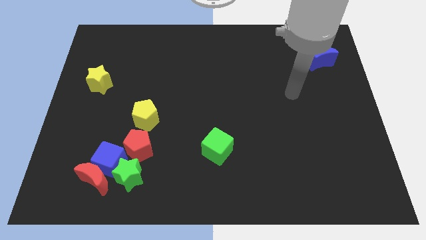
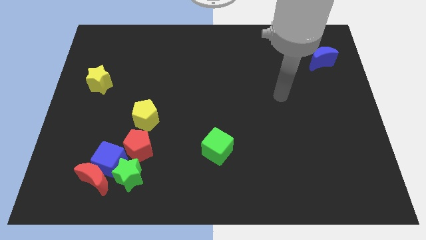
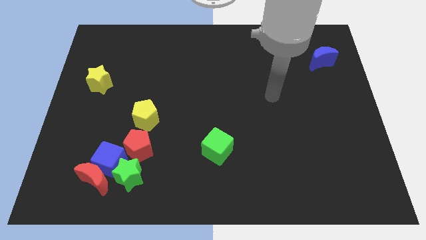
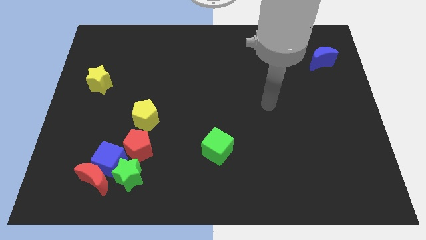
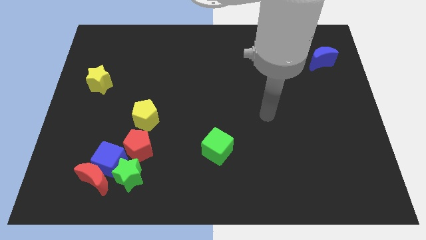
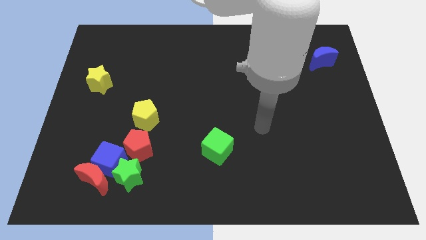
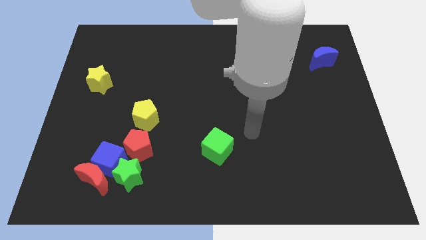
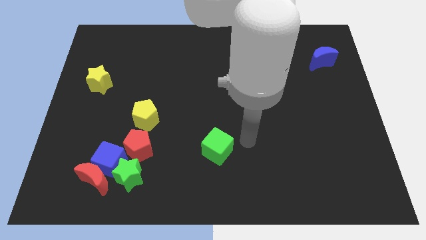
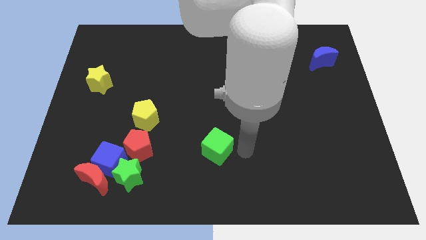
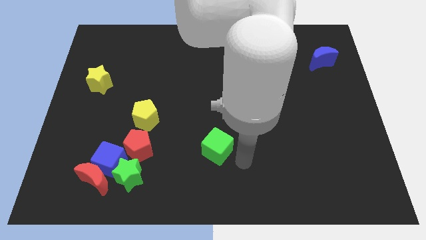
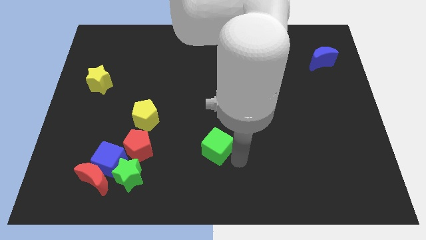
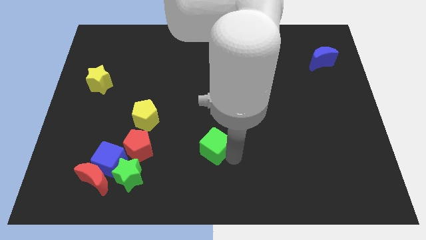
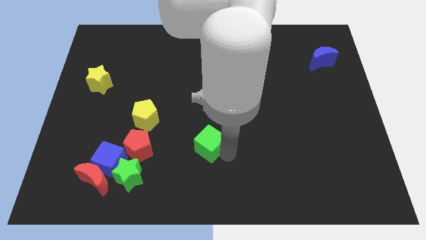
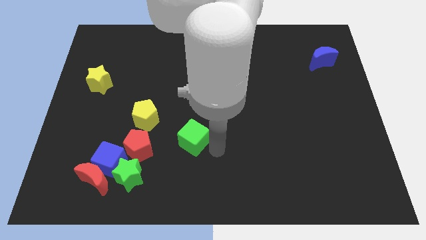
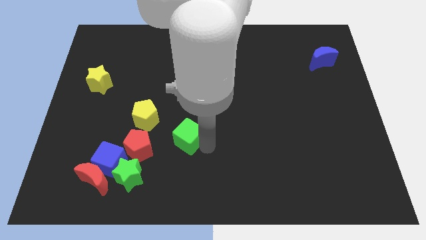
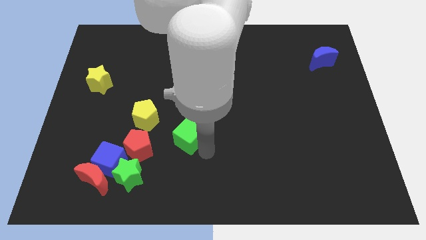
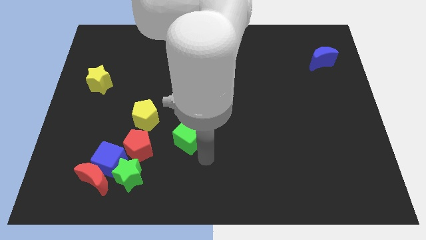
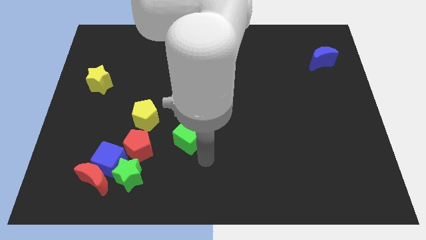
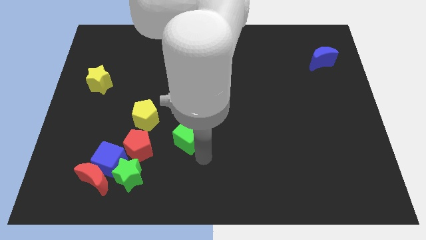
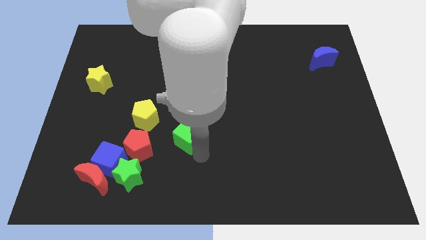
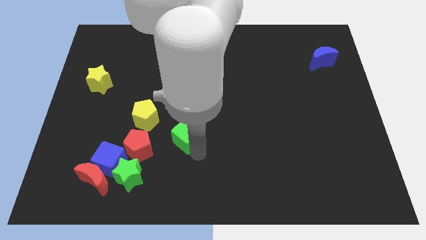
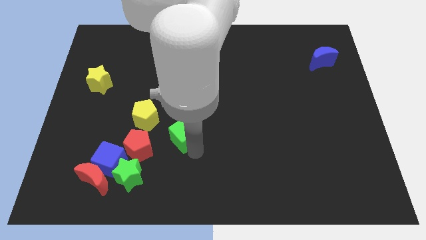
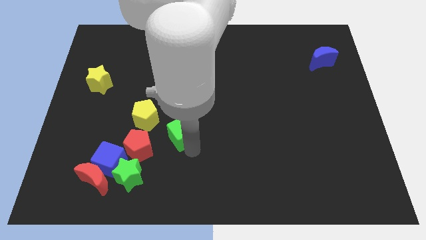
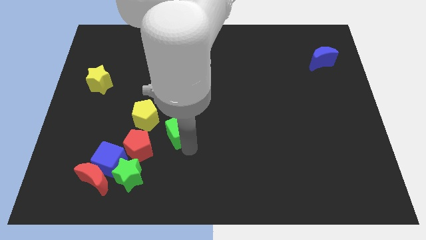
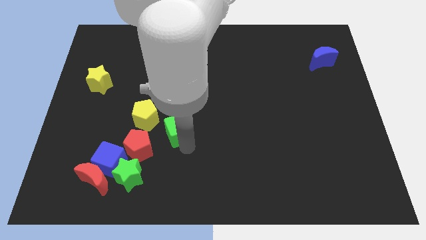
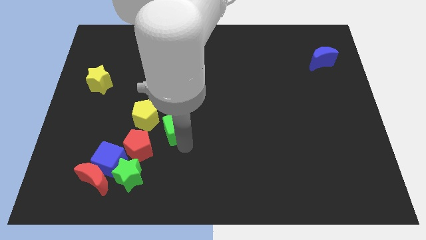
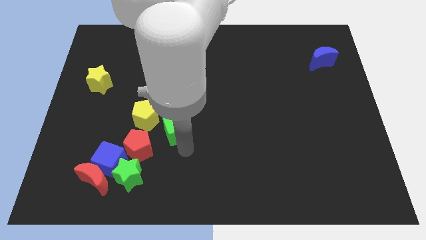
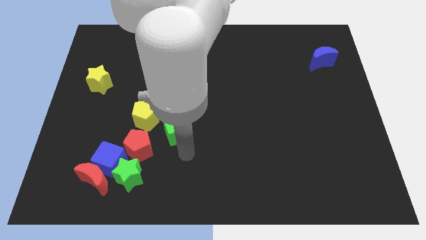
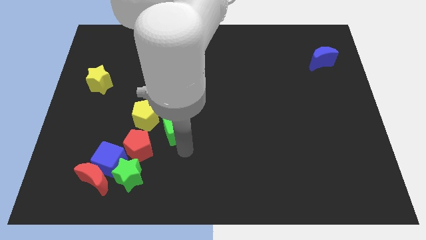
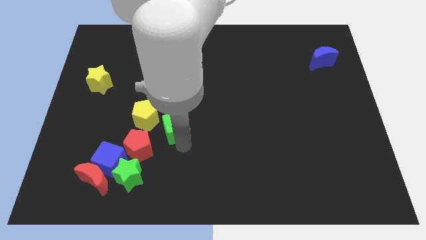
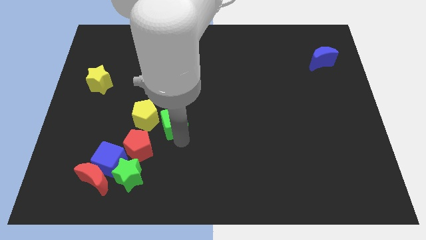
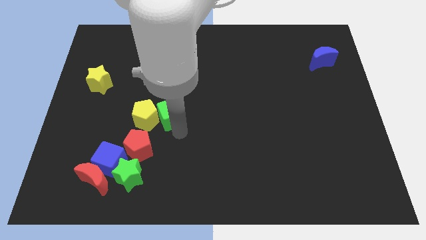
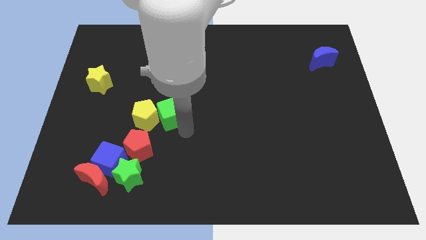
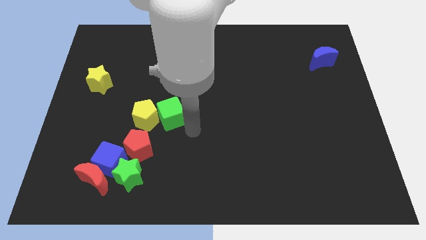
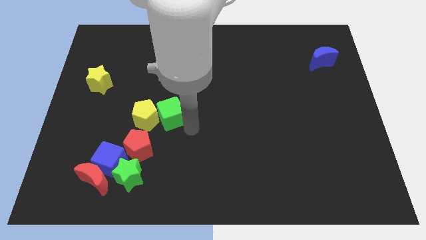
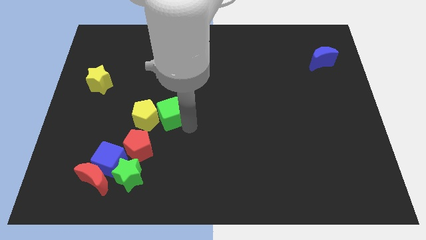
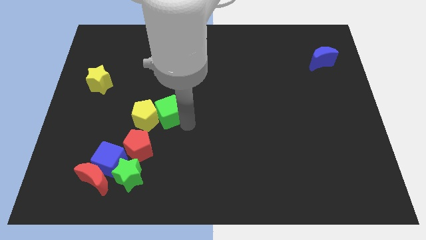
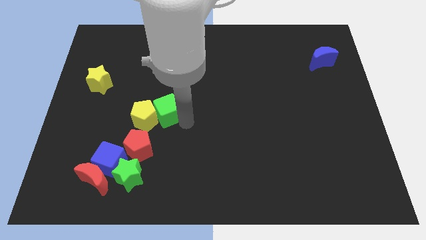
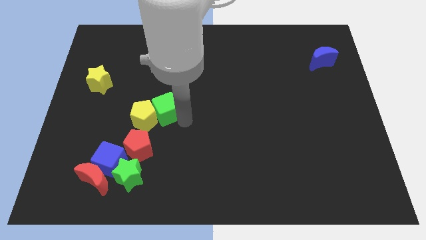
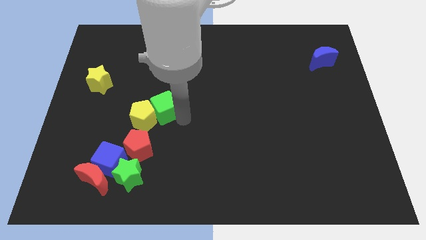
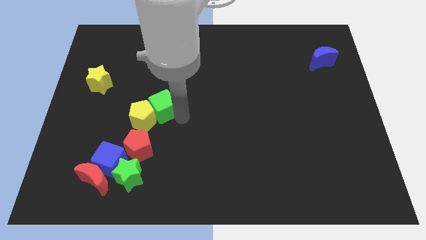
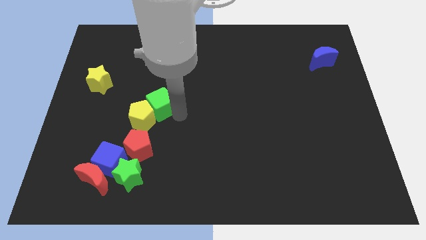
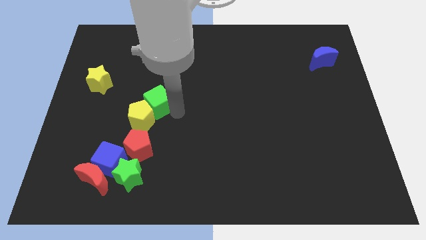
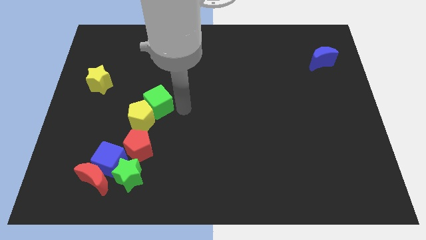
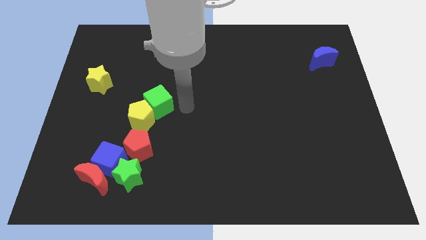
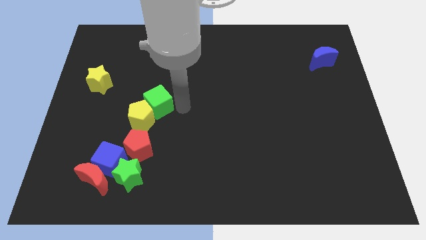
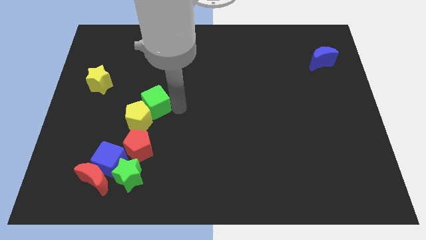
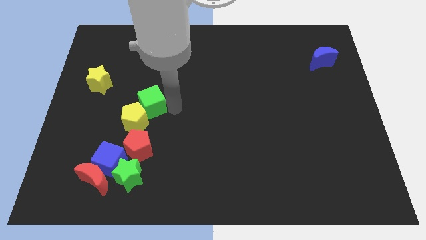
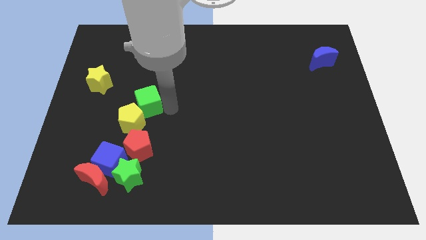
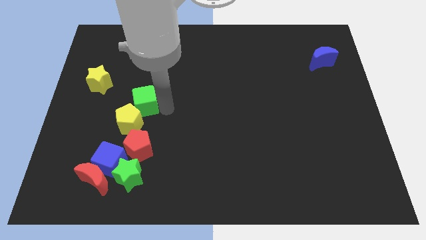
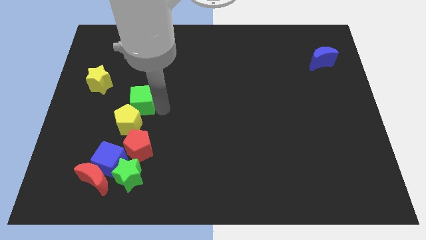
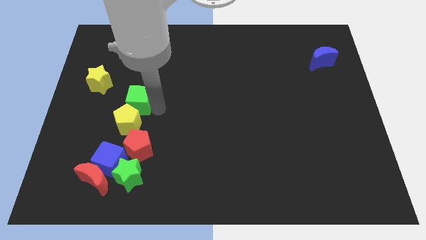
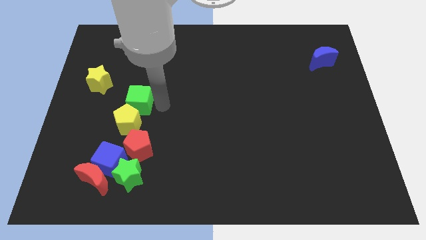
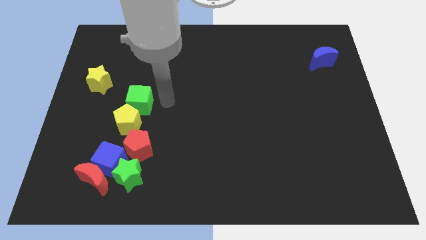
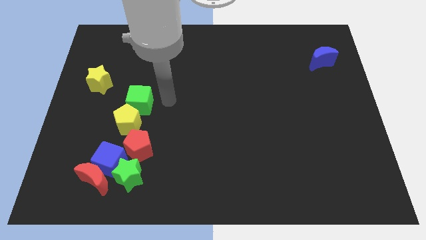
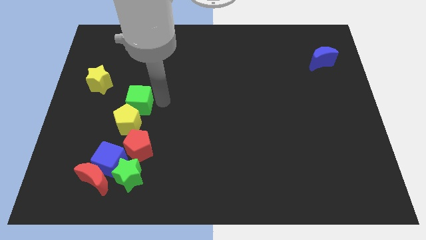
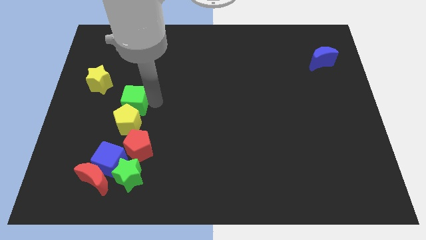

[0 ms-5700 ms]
move the green cube diagonally up and to the left of the yellow pentagon

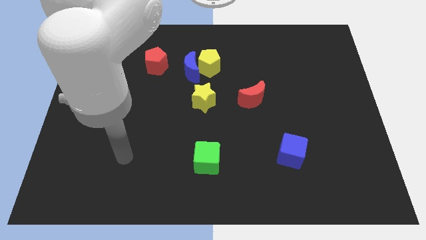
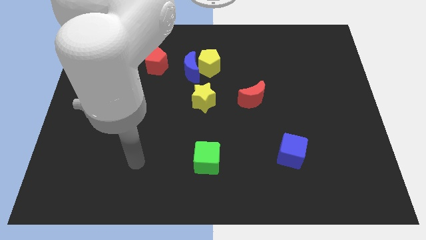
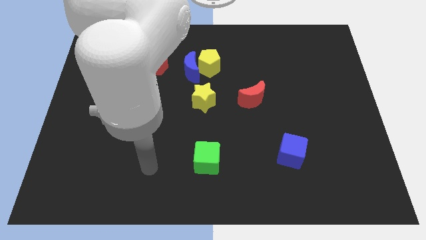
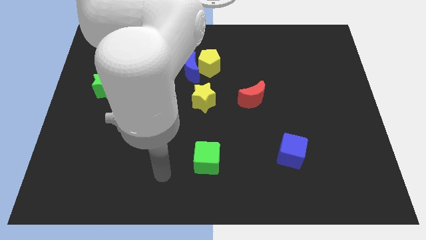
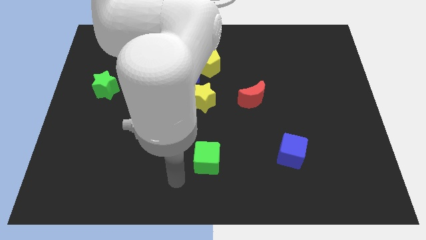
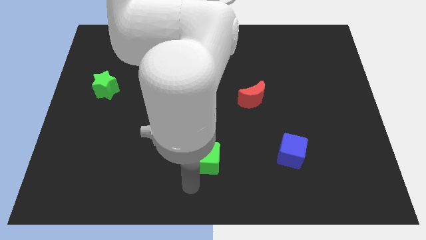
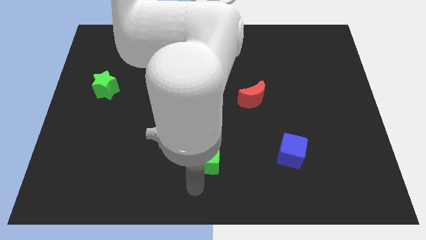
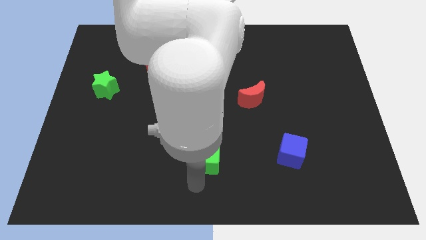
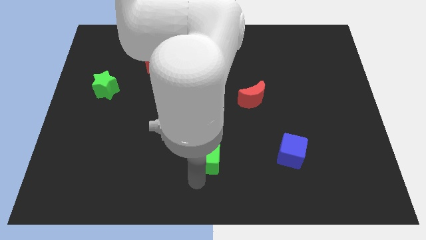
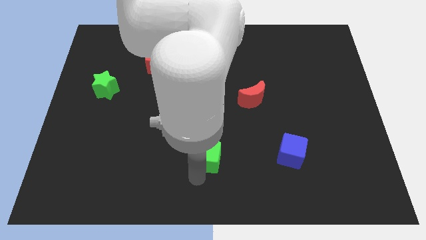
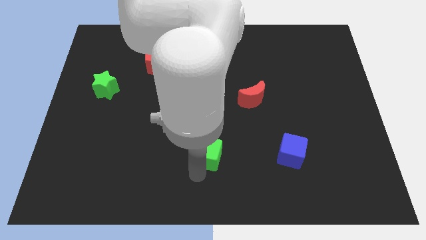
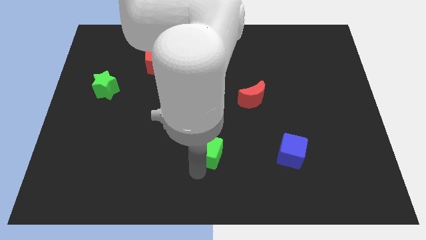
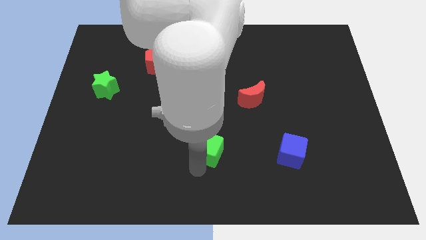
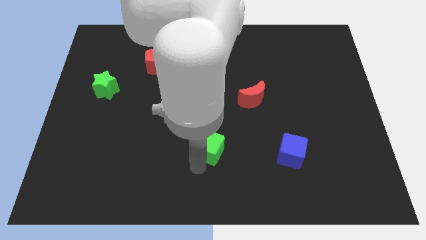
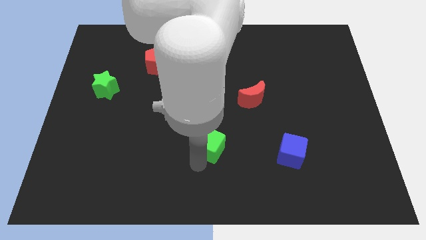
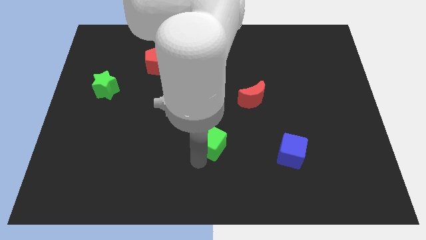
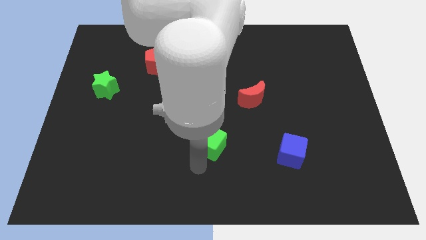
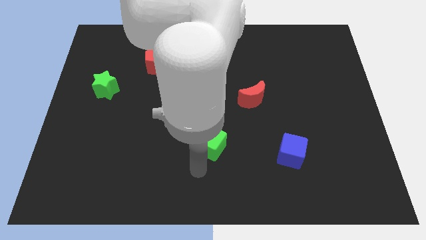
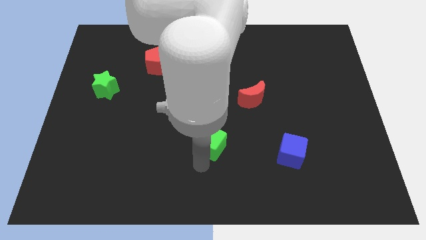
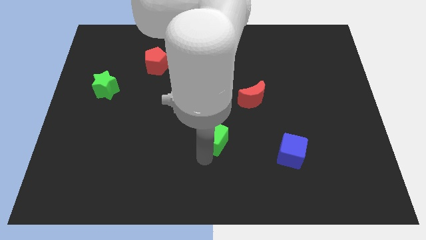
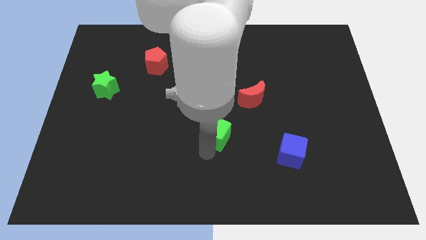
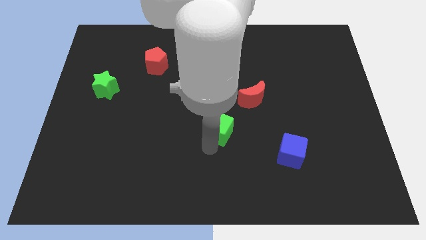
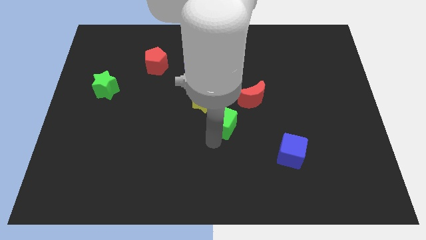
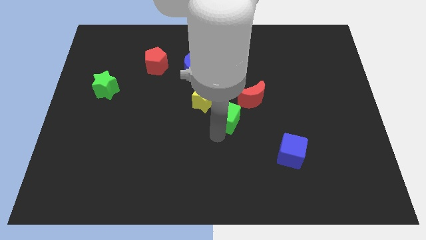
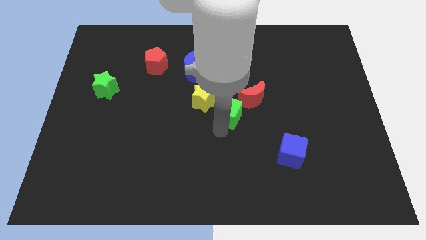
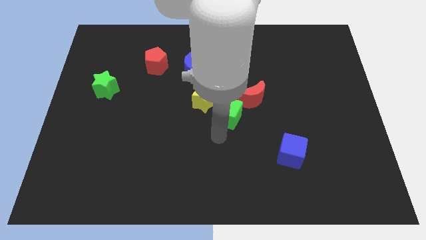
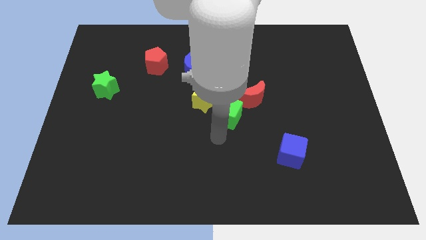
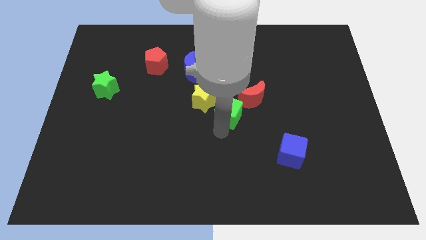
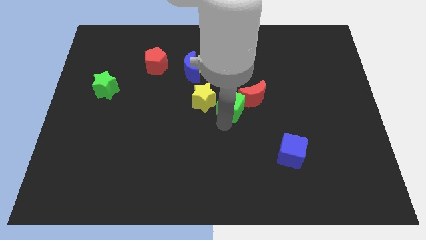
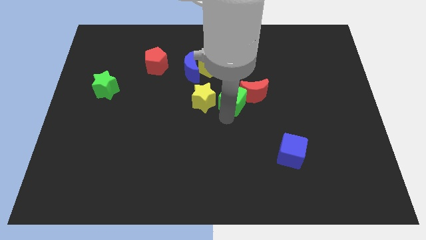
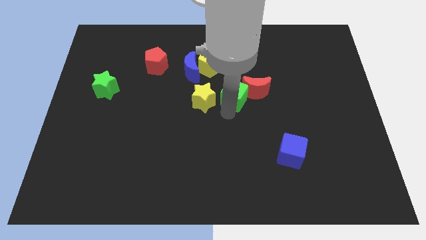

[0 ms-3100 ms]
move the green cube diagonally down and to the right of the yellow pentagon
